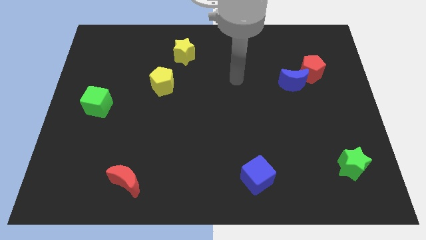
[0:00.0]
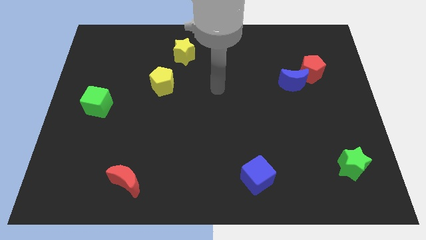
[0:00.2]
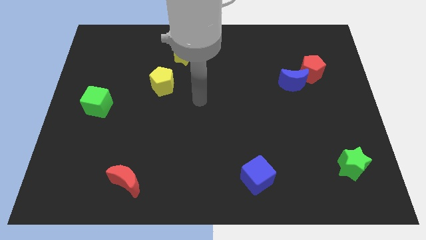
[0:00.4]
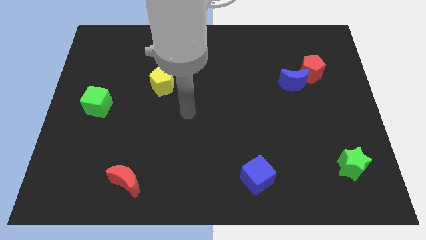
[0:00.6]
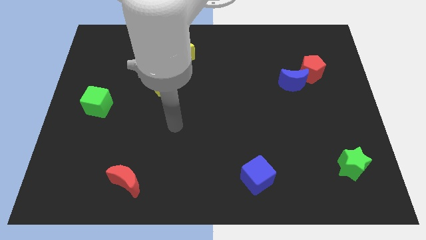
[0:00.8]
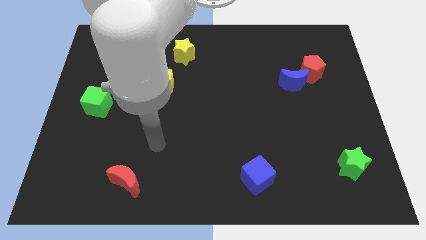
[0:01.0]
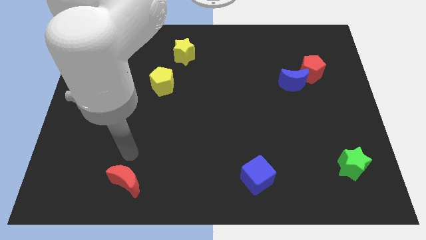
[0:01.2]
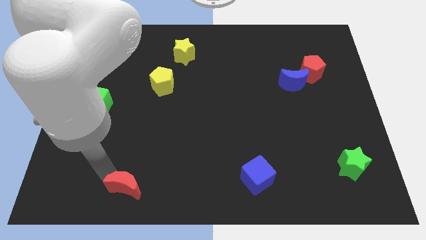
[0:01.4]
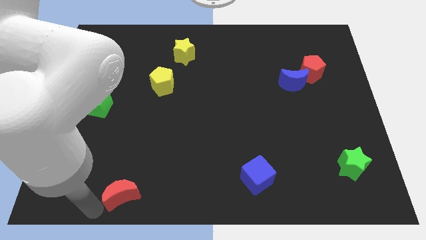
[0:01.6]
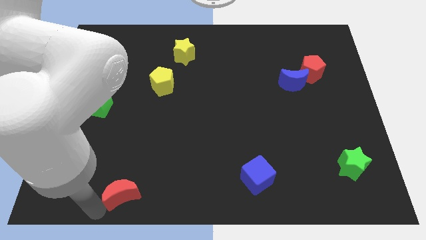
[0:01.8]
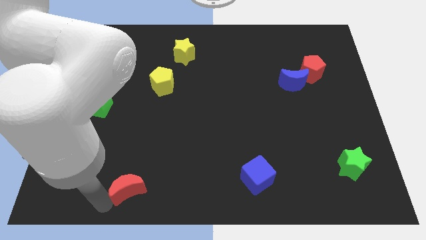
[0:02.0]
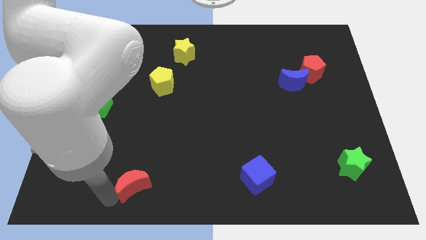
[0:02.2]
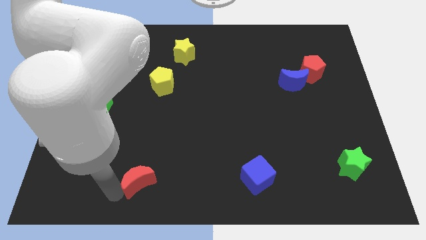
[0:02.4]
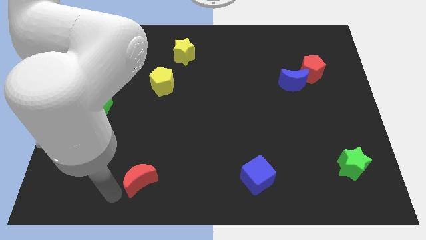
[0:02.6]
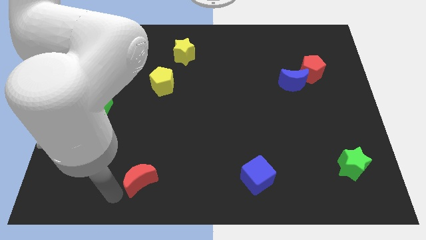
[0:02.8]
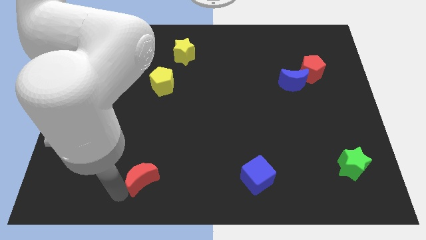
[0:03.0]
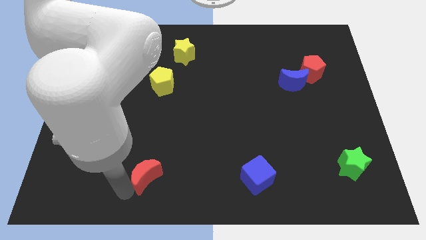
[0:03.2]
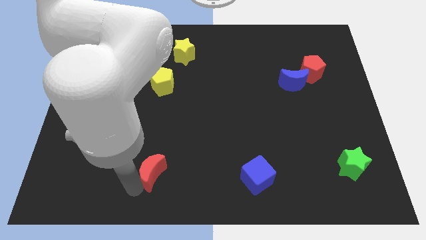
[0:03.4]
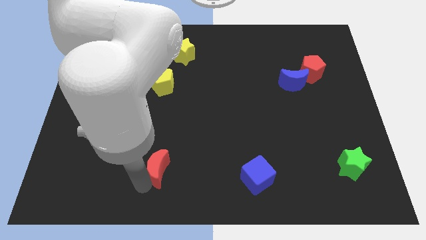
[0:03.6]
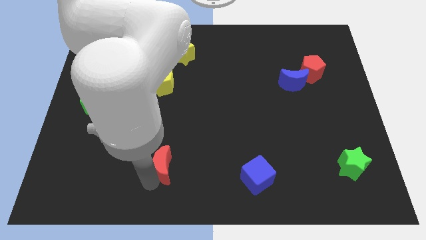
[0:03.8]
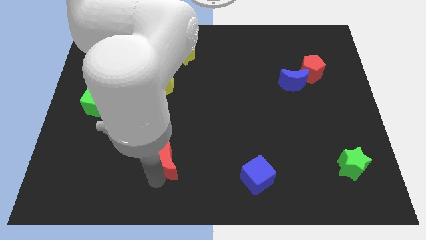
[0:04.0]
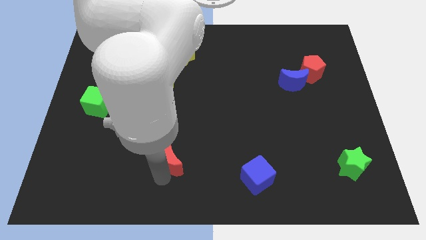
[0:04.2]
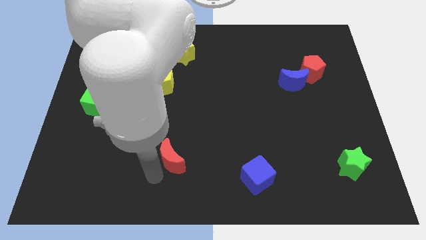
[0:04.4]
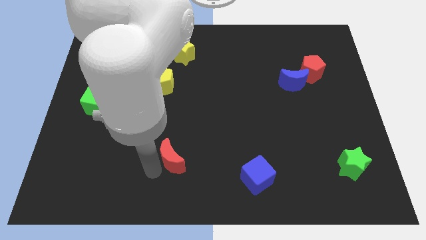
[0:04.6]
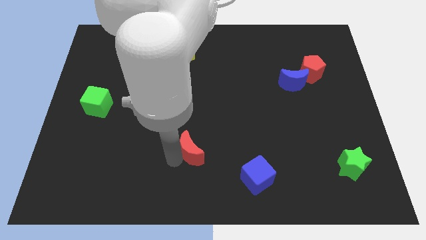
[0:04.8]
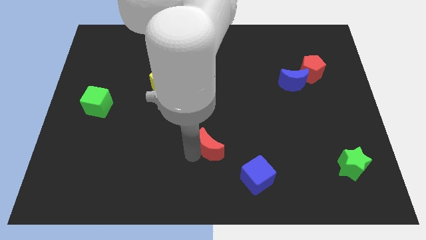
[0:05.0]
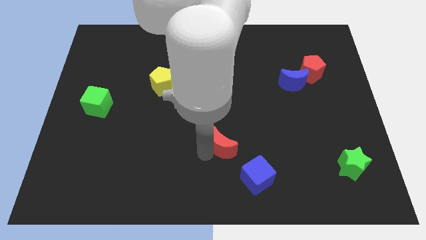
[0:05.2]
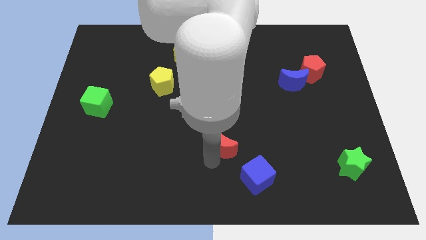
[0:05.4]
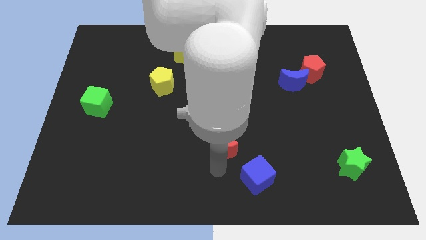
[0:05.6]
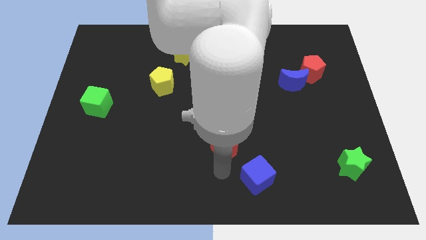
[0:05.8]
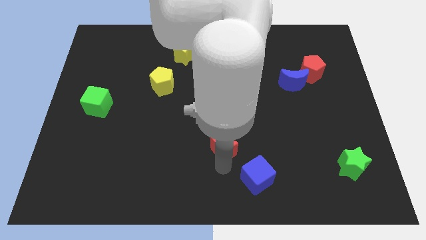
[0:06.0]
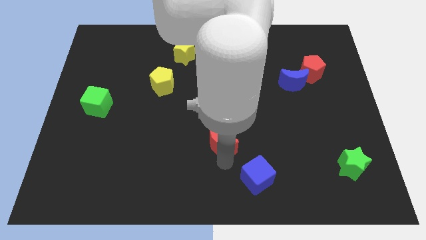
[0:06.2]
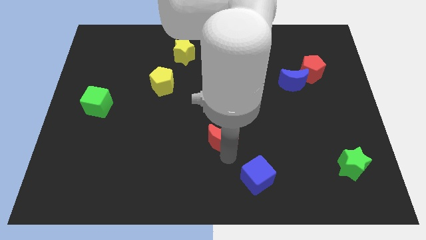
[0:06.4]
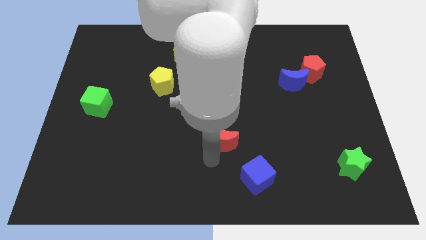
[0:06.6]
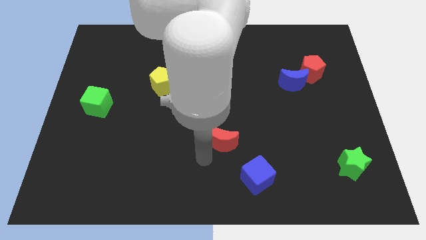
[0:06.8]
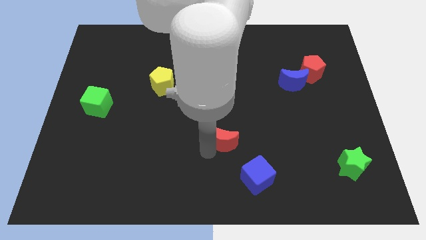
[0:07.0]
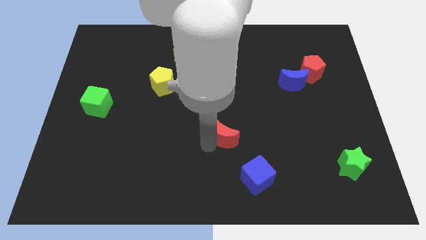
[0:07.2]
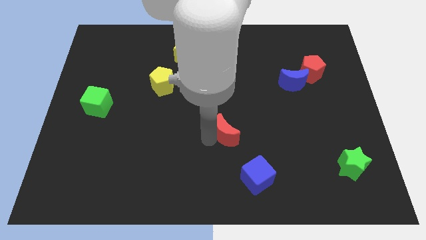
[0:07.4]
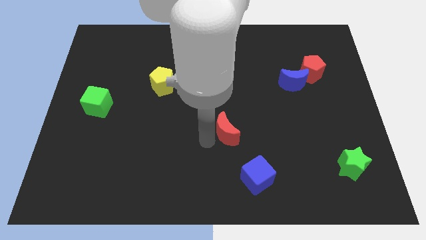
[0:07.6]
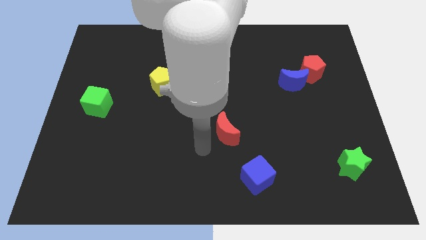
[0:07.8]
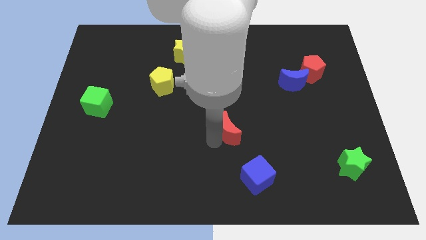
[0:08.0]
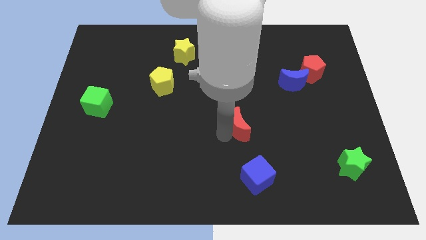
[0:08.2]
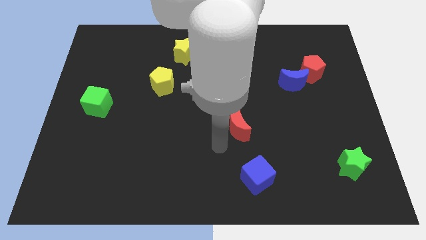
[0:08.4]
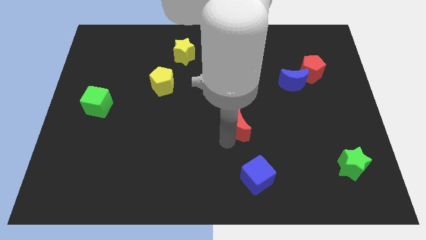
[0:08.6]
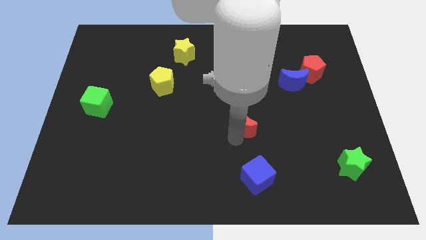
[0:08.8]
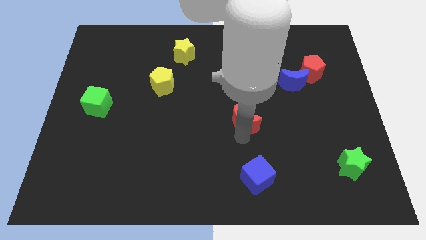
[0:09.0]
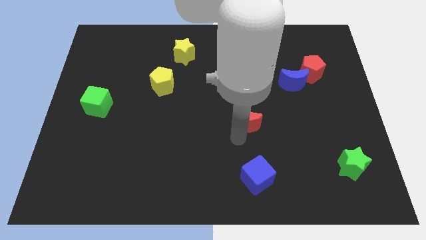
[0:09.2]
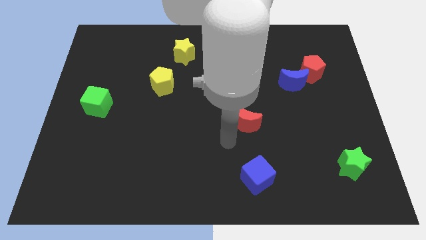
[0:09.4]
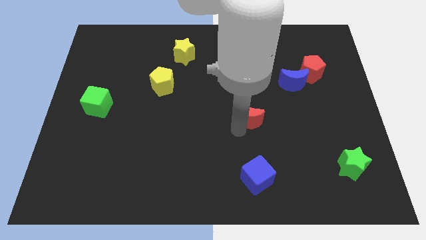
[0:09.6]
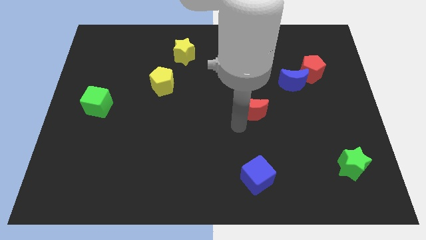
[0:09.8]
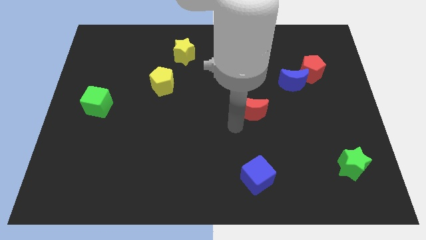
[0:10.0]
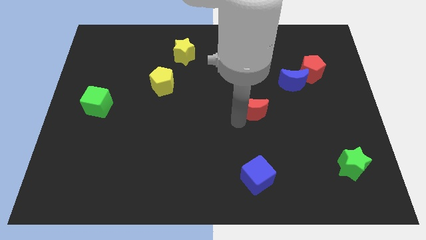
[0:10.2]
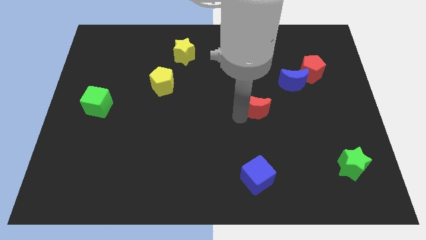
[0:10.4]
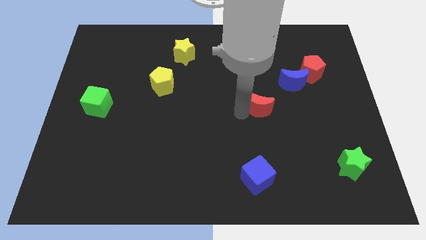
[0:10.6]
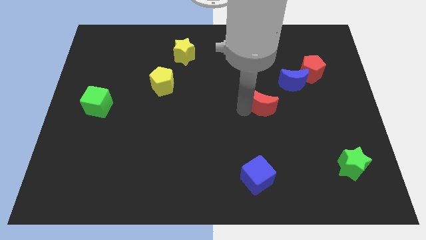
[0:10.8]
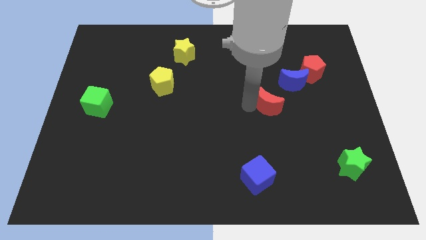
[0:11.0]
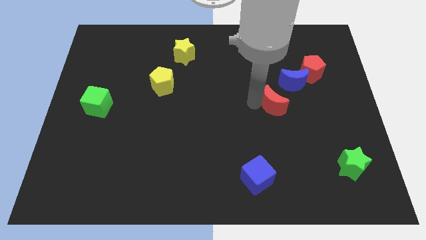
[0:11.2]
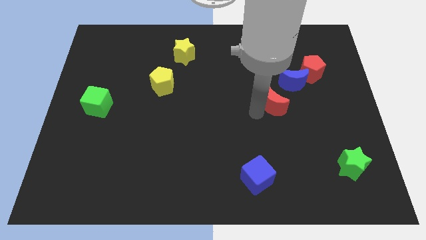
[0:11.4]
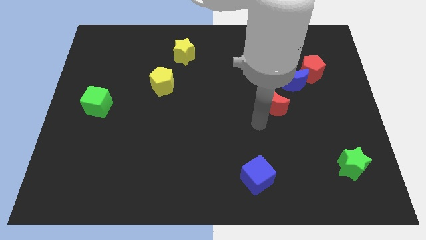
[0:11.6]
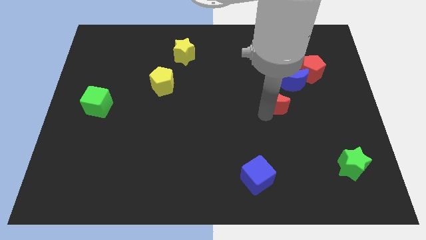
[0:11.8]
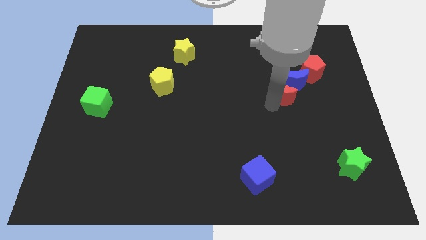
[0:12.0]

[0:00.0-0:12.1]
push the red moon towards the blue moon

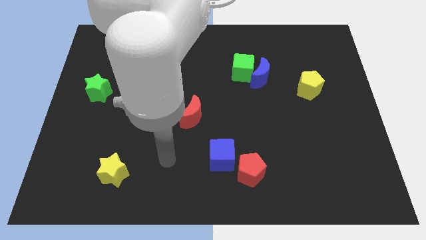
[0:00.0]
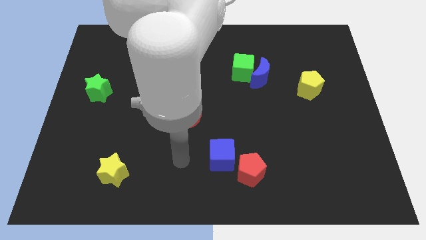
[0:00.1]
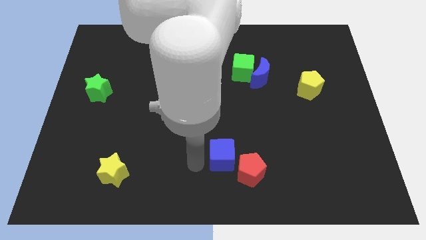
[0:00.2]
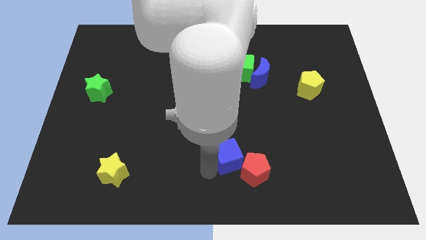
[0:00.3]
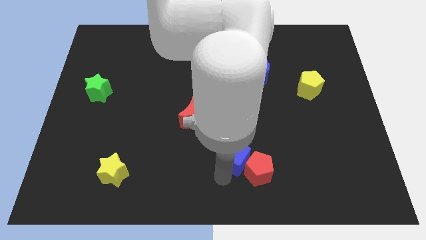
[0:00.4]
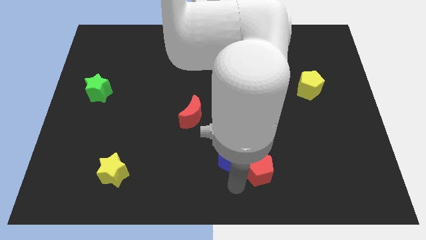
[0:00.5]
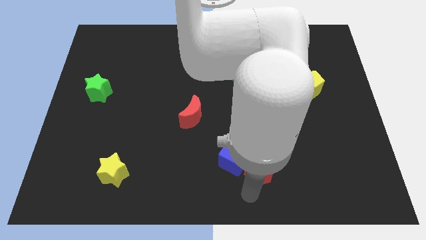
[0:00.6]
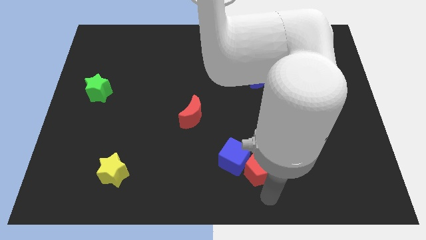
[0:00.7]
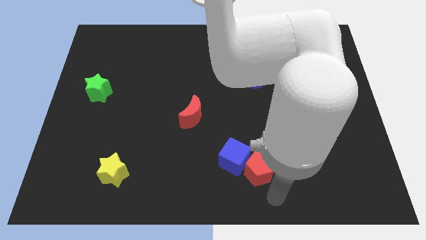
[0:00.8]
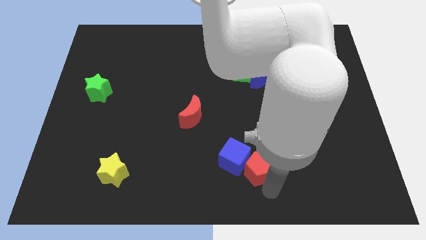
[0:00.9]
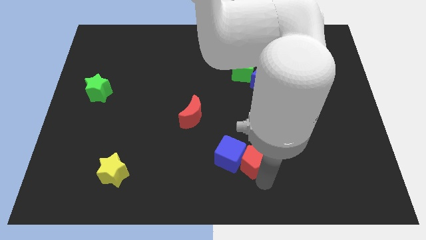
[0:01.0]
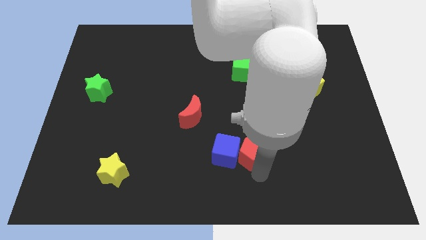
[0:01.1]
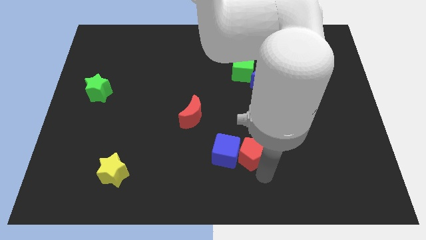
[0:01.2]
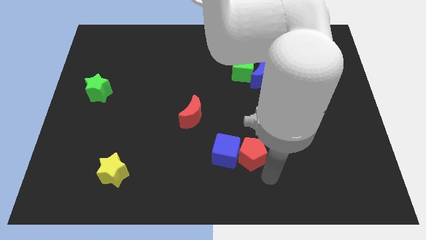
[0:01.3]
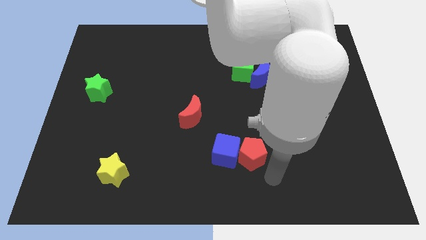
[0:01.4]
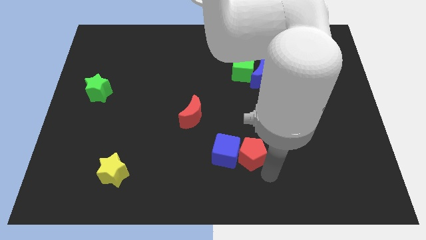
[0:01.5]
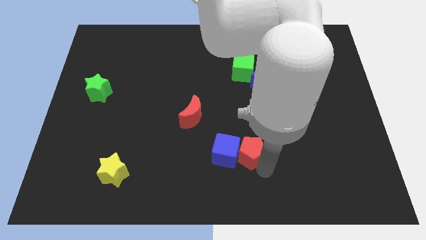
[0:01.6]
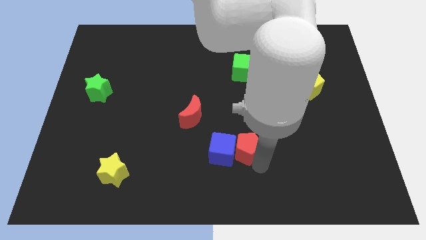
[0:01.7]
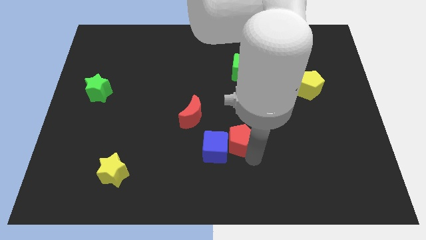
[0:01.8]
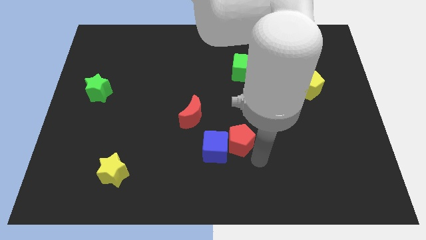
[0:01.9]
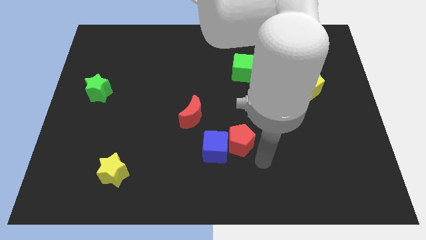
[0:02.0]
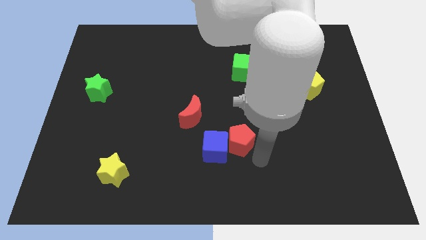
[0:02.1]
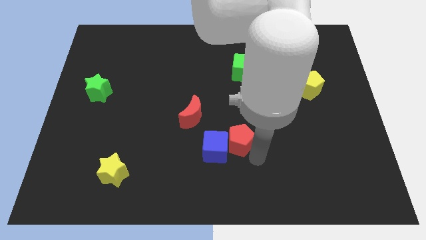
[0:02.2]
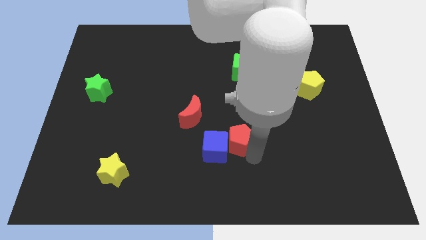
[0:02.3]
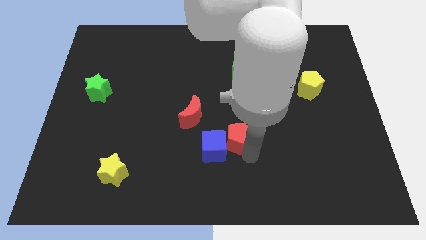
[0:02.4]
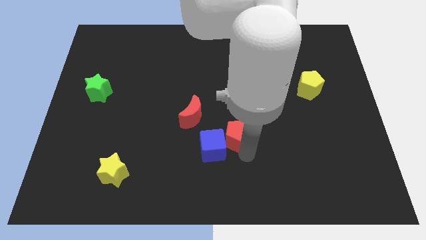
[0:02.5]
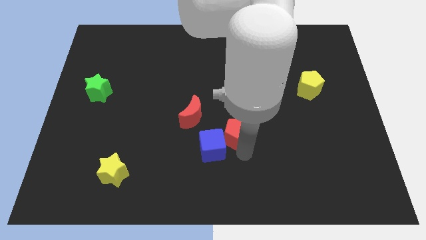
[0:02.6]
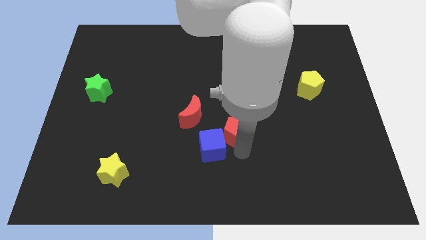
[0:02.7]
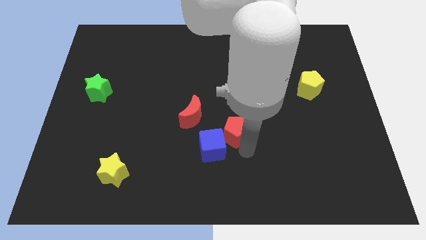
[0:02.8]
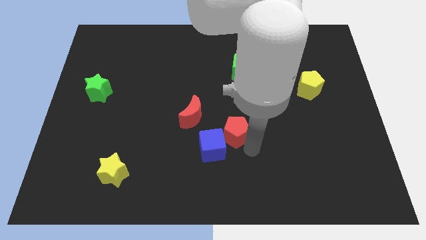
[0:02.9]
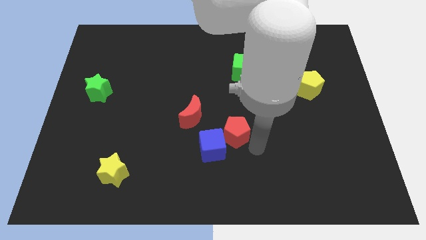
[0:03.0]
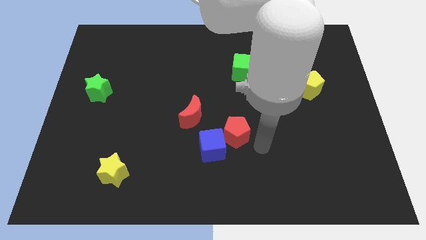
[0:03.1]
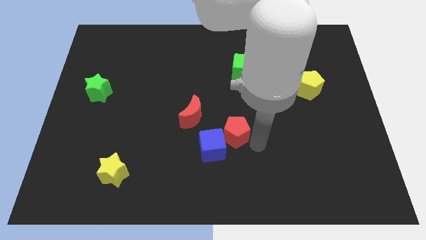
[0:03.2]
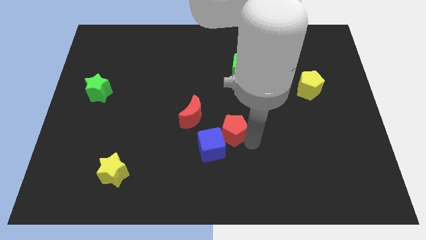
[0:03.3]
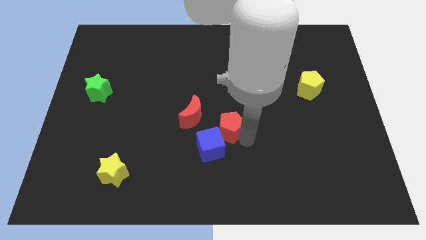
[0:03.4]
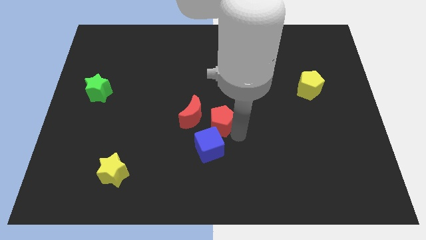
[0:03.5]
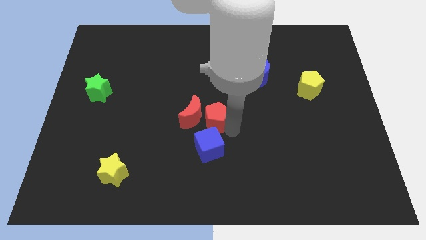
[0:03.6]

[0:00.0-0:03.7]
move the red pentagon to the red moon
